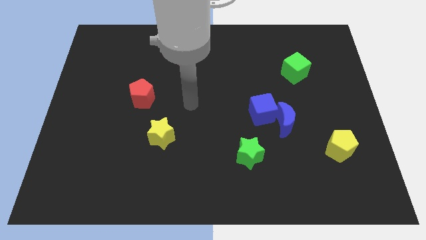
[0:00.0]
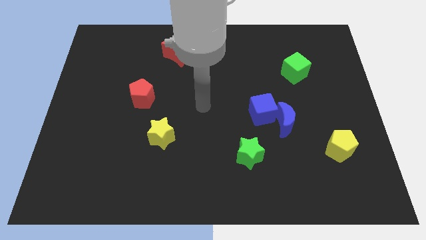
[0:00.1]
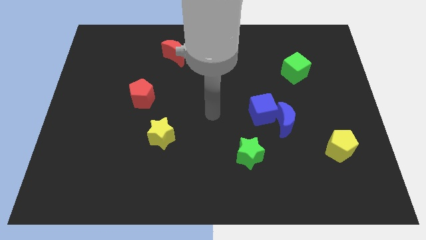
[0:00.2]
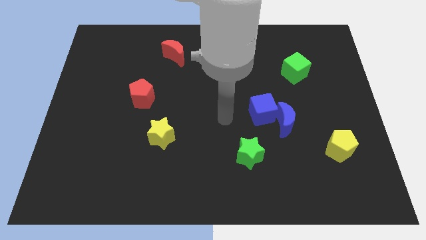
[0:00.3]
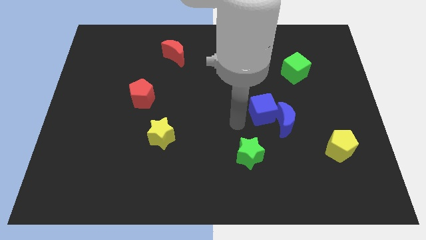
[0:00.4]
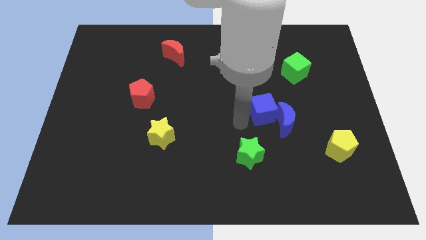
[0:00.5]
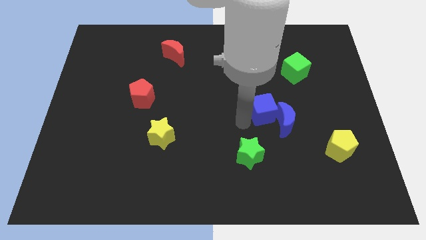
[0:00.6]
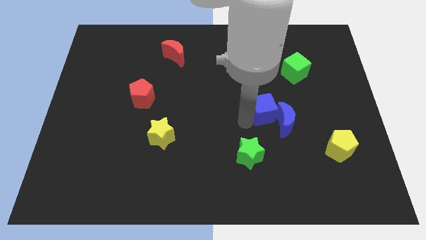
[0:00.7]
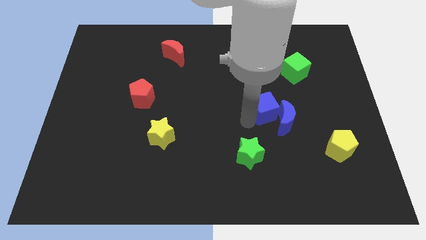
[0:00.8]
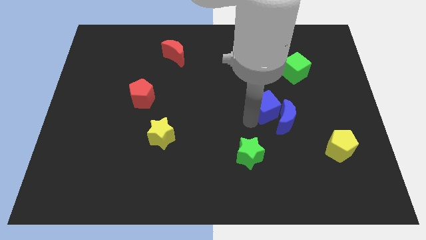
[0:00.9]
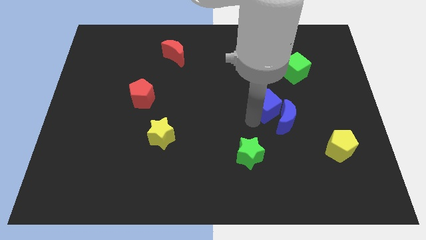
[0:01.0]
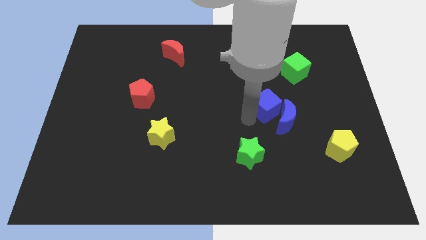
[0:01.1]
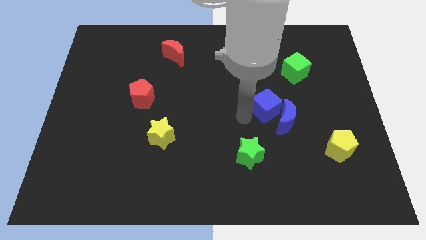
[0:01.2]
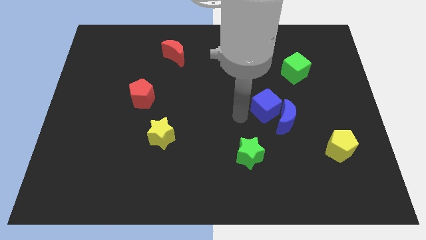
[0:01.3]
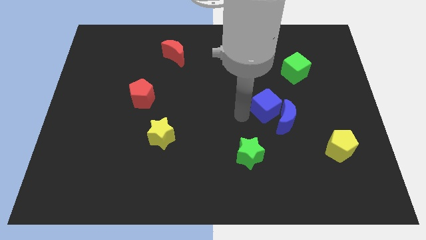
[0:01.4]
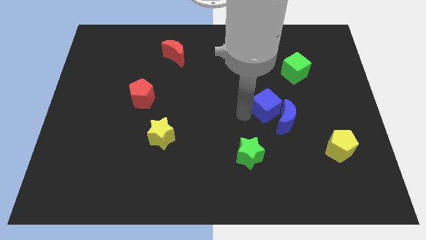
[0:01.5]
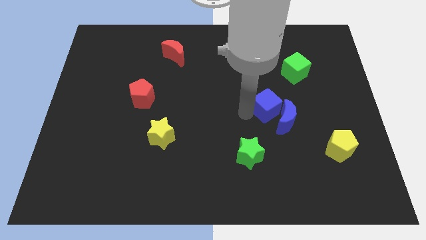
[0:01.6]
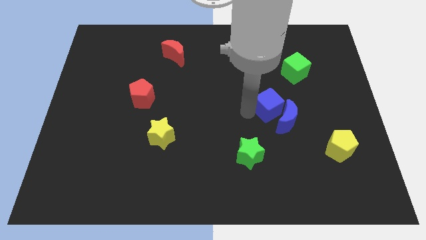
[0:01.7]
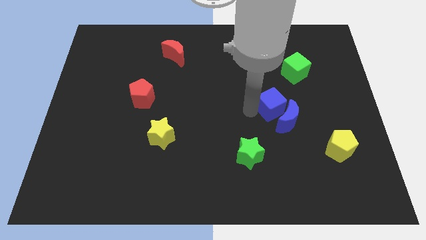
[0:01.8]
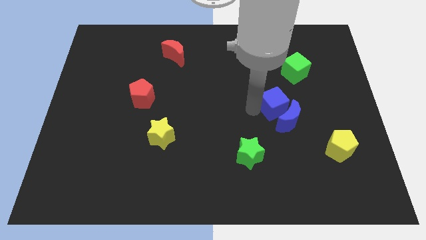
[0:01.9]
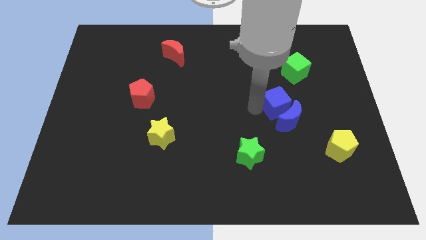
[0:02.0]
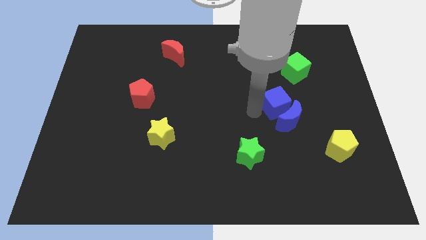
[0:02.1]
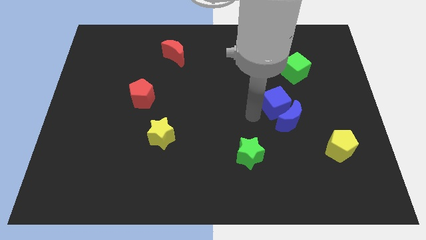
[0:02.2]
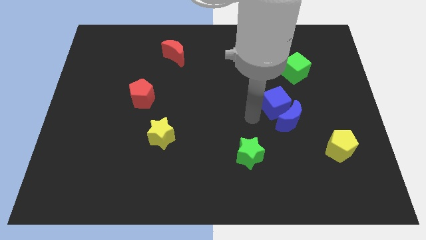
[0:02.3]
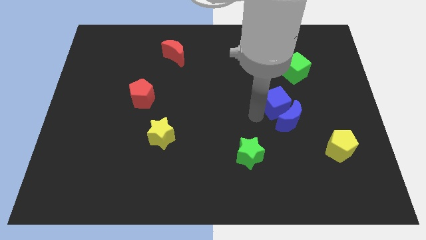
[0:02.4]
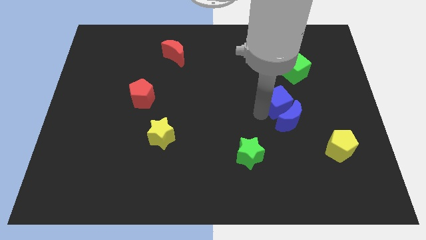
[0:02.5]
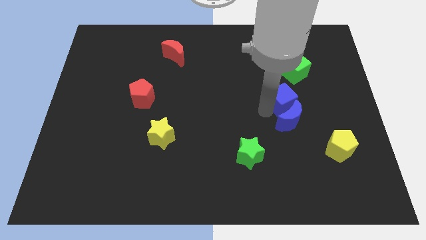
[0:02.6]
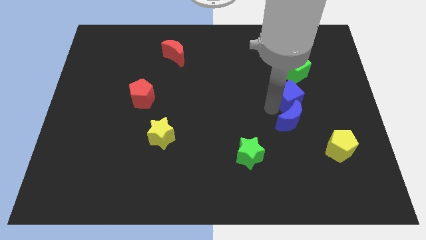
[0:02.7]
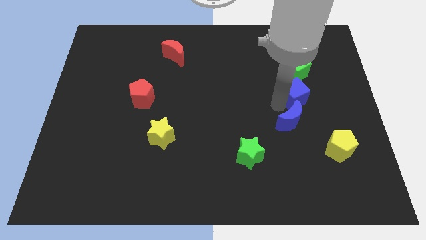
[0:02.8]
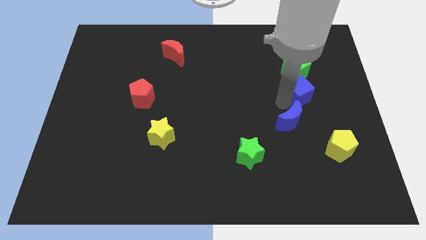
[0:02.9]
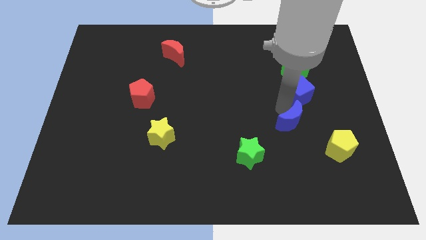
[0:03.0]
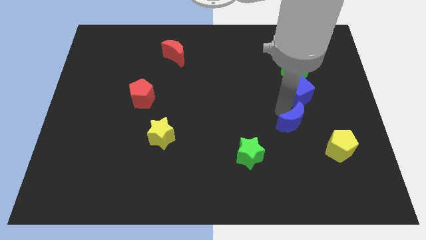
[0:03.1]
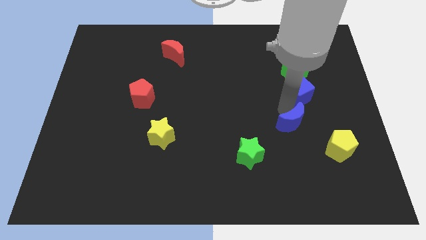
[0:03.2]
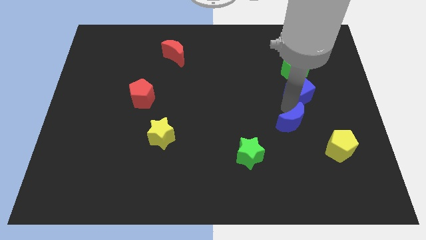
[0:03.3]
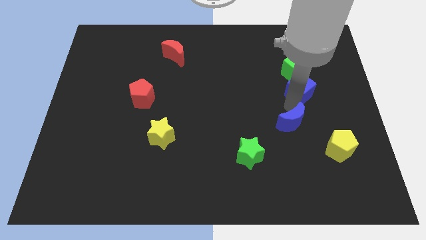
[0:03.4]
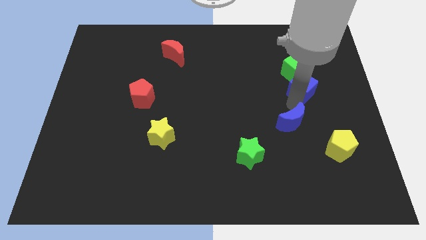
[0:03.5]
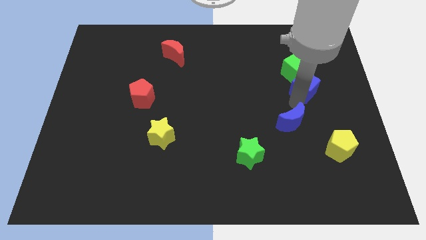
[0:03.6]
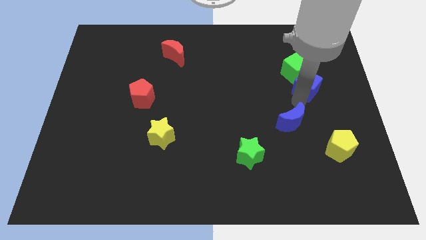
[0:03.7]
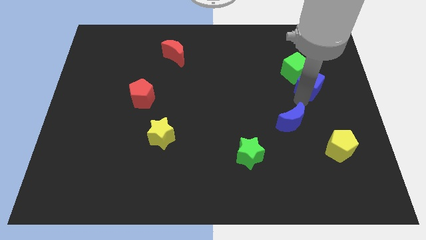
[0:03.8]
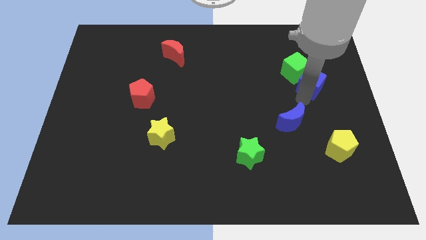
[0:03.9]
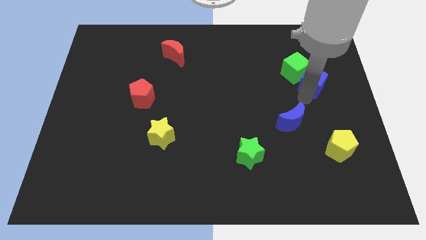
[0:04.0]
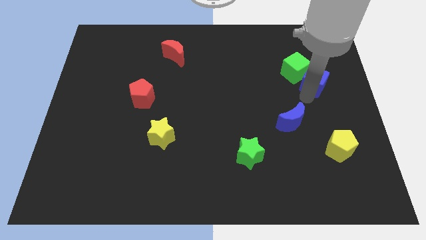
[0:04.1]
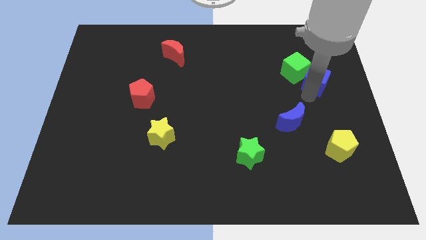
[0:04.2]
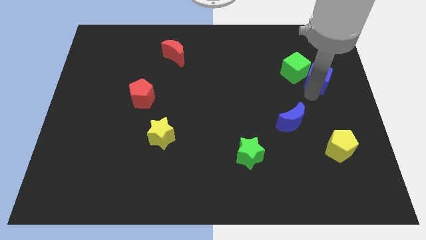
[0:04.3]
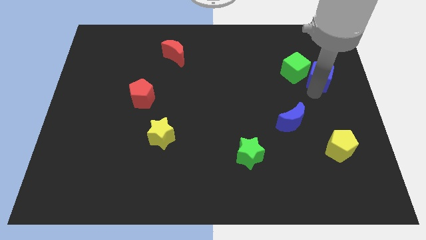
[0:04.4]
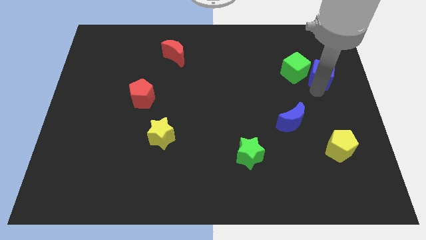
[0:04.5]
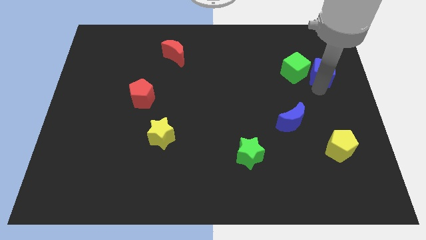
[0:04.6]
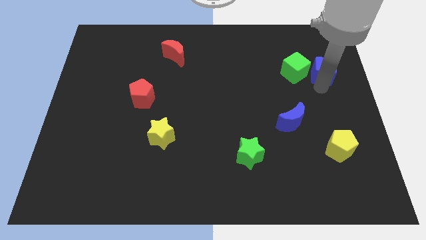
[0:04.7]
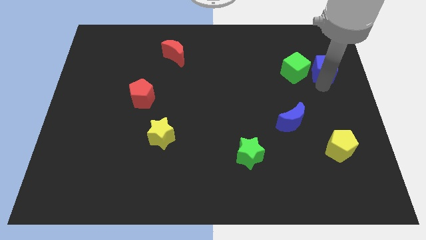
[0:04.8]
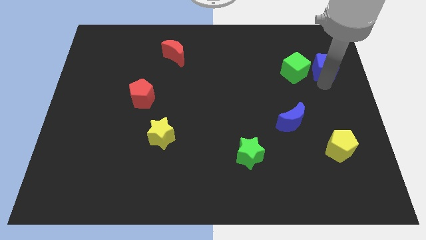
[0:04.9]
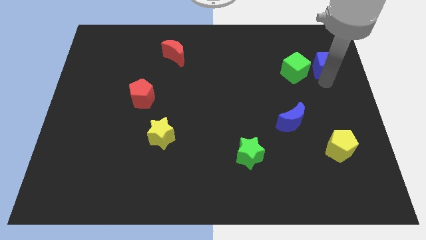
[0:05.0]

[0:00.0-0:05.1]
move the blue cube to the top right of the green cube

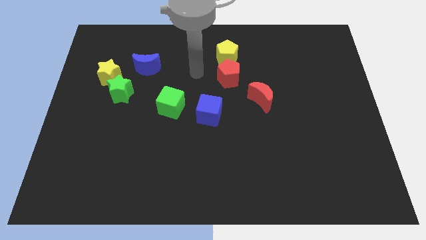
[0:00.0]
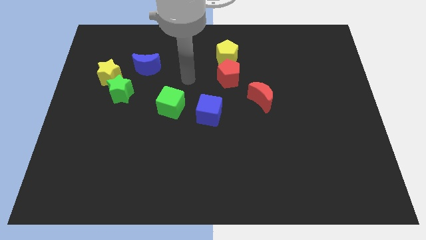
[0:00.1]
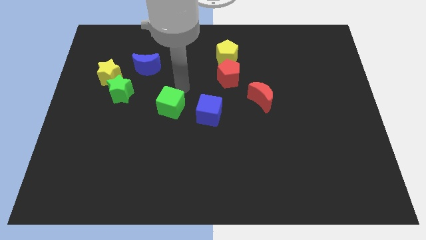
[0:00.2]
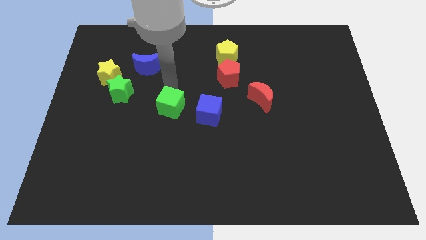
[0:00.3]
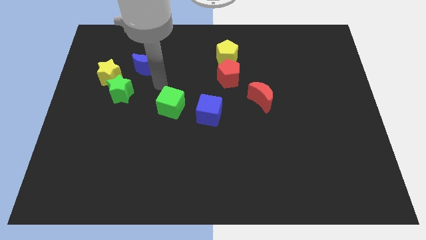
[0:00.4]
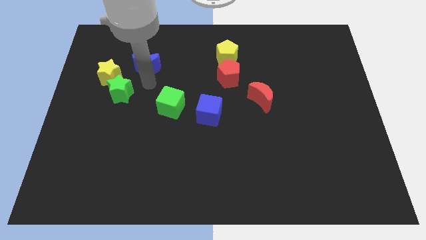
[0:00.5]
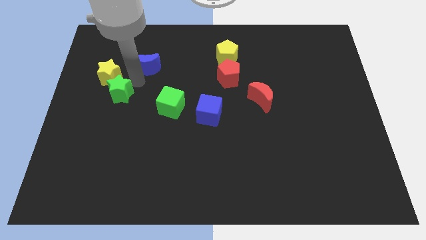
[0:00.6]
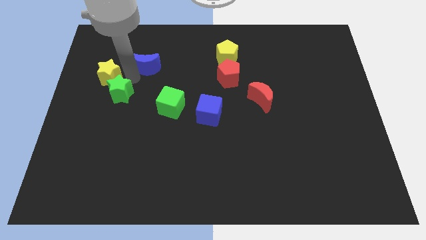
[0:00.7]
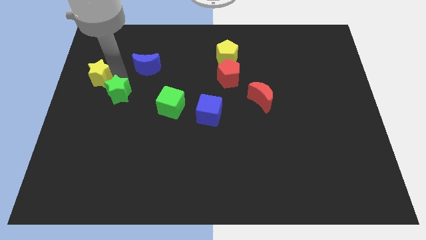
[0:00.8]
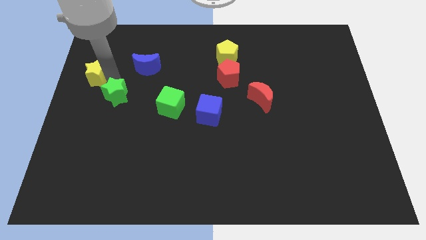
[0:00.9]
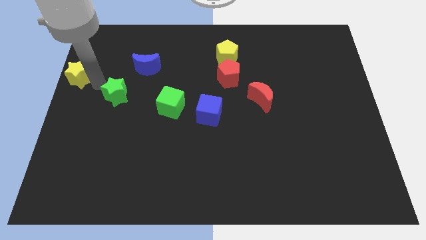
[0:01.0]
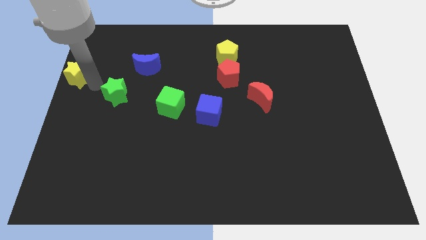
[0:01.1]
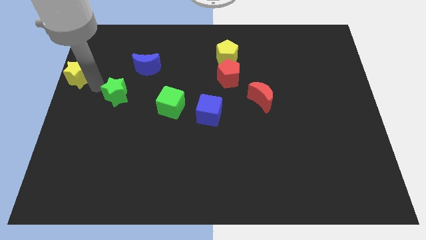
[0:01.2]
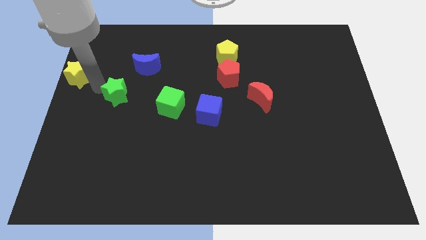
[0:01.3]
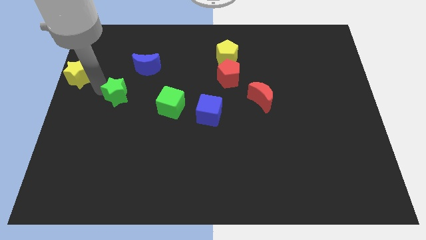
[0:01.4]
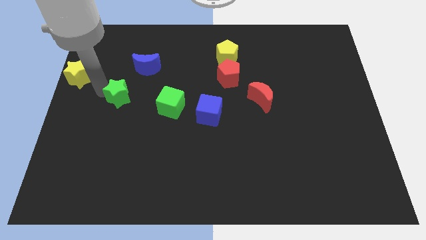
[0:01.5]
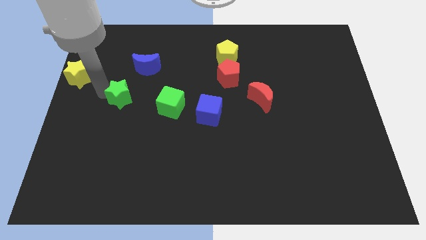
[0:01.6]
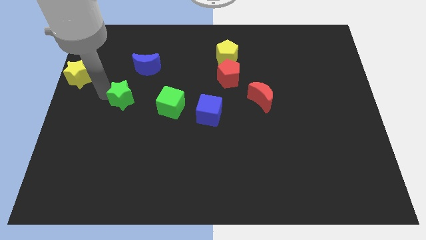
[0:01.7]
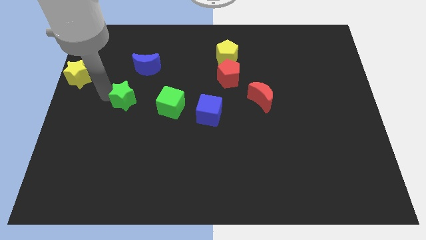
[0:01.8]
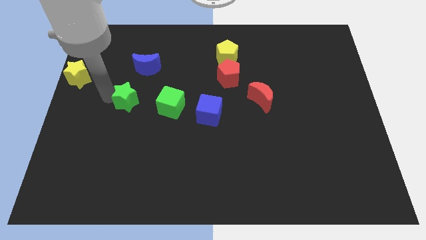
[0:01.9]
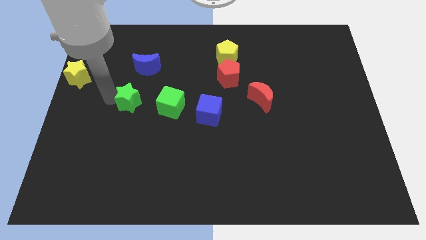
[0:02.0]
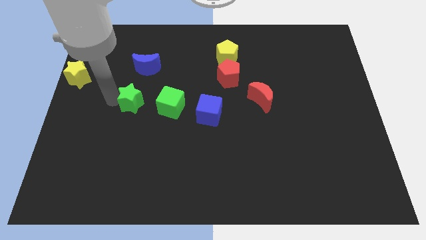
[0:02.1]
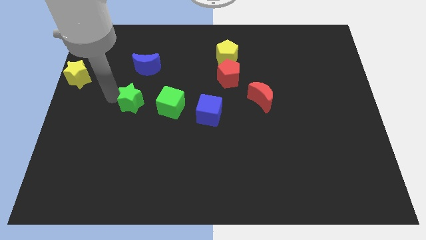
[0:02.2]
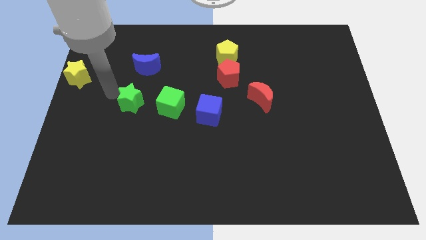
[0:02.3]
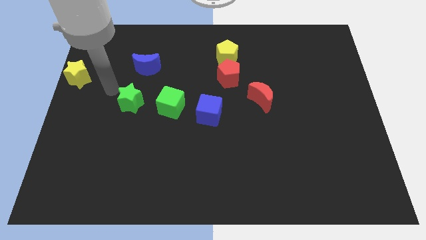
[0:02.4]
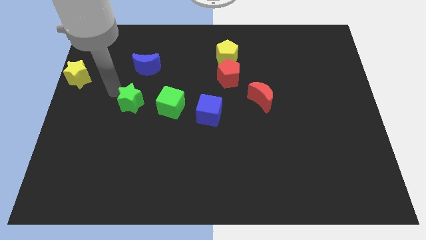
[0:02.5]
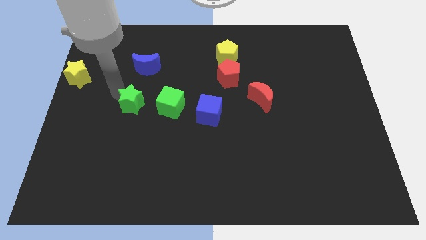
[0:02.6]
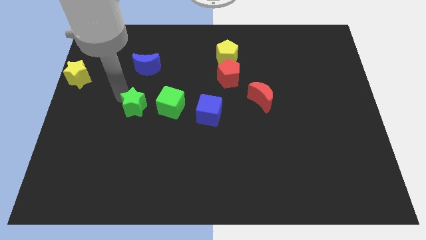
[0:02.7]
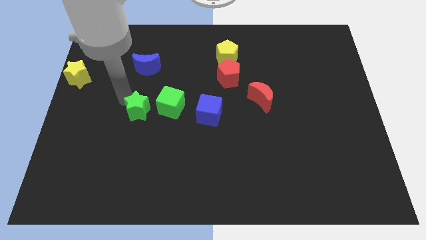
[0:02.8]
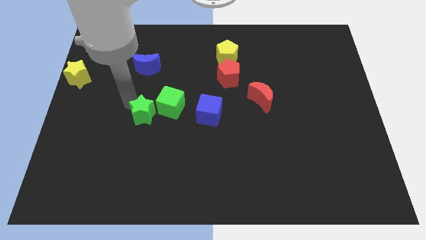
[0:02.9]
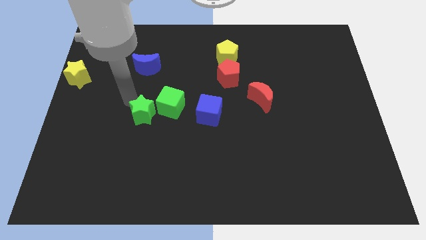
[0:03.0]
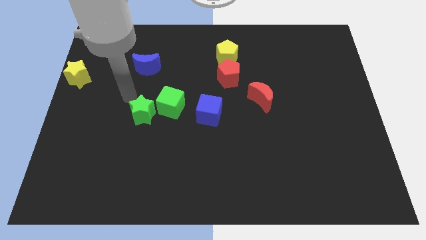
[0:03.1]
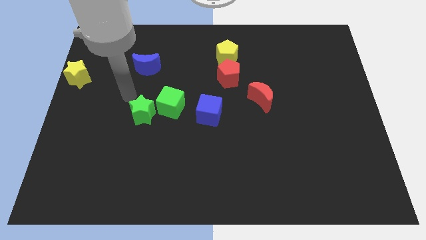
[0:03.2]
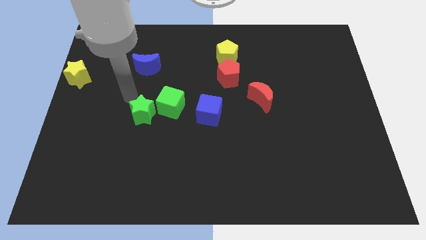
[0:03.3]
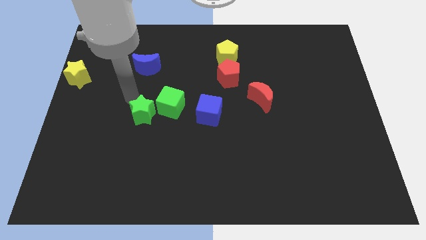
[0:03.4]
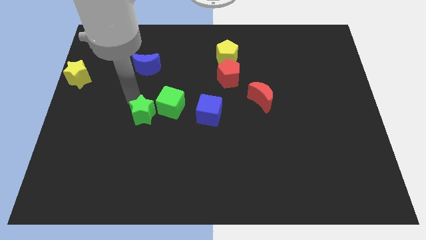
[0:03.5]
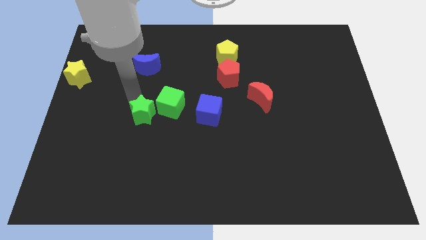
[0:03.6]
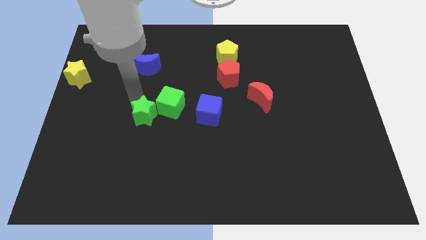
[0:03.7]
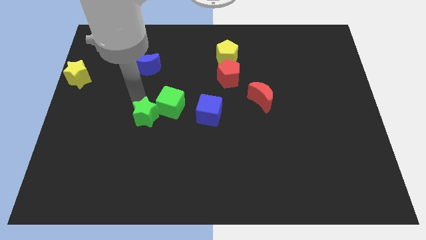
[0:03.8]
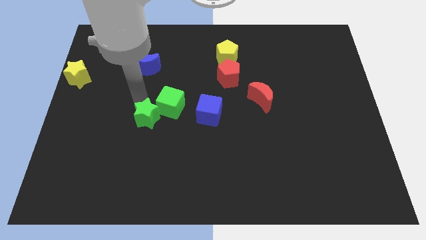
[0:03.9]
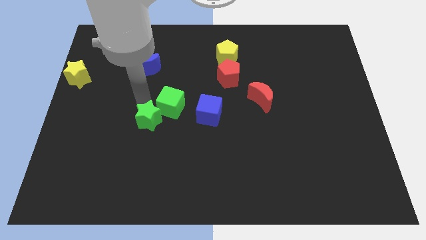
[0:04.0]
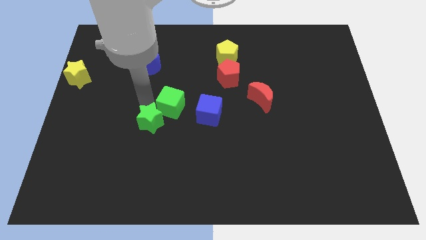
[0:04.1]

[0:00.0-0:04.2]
push the green star below the green cube
